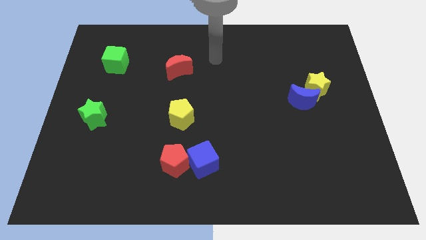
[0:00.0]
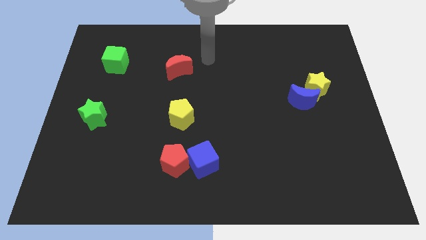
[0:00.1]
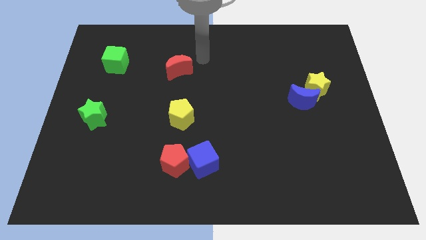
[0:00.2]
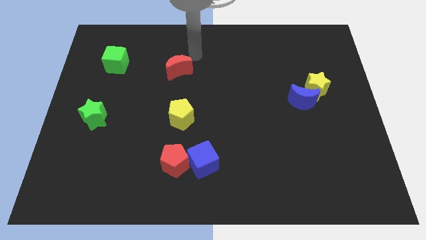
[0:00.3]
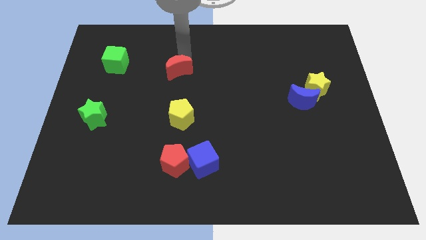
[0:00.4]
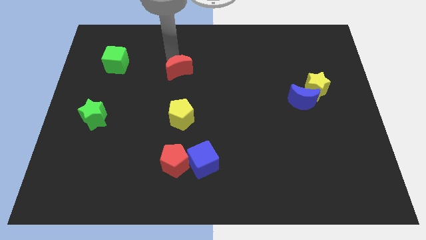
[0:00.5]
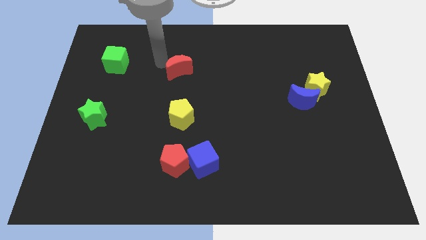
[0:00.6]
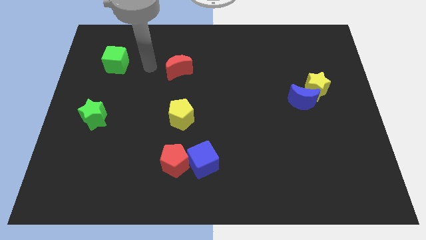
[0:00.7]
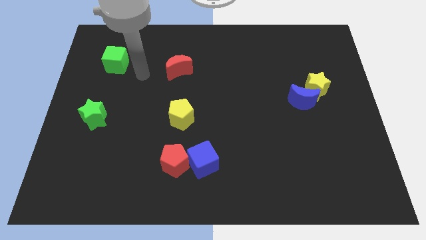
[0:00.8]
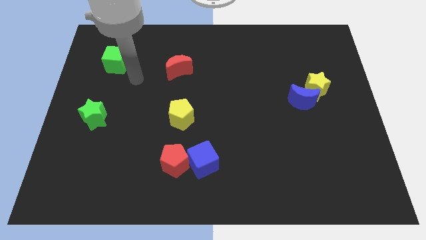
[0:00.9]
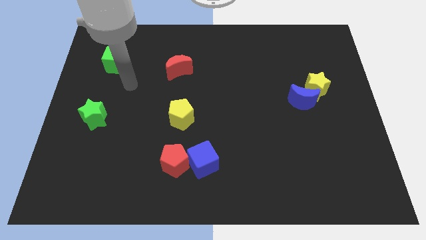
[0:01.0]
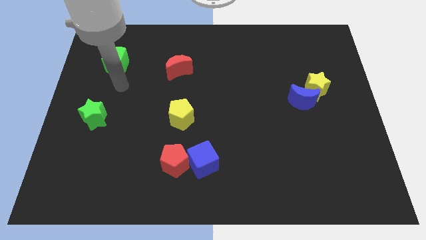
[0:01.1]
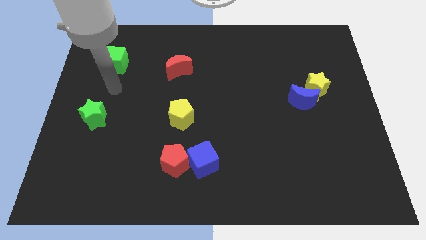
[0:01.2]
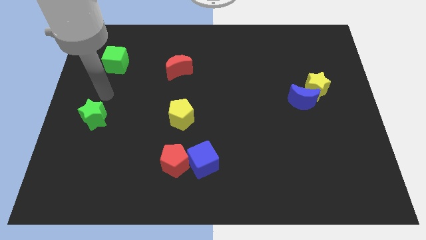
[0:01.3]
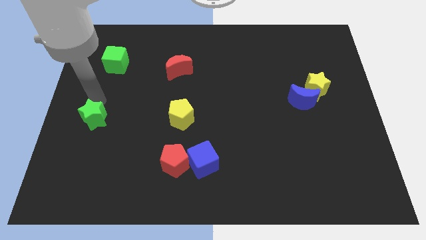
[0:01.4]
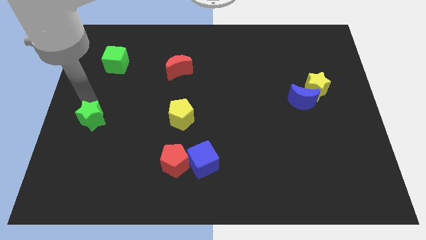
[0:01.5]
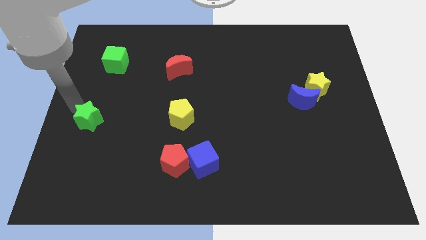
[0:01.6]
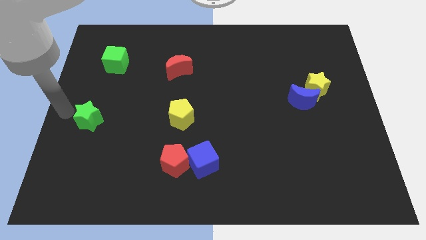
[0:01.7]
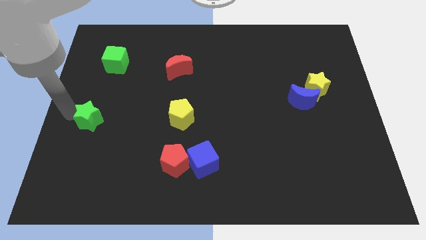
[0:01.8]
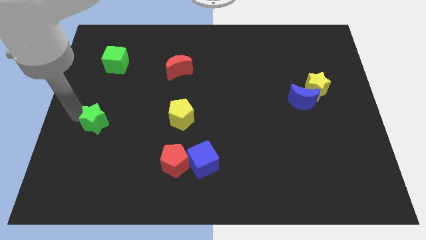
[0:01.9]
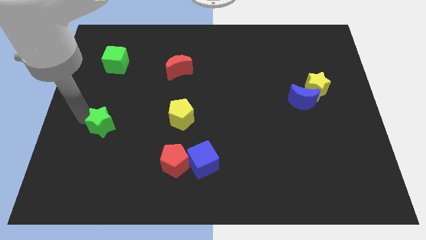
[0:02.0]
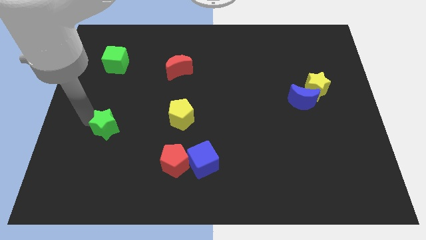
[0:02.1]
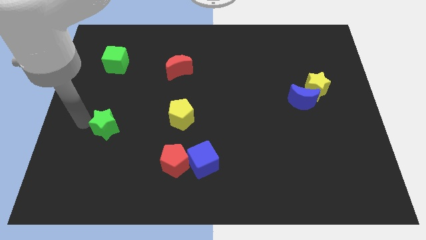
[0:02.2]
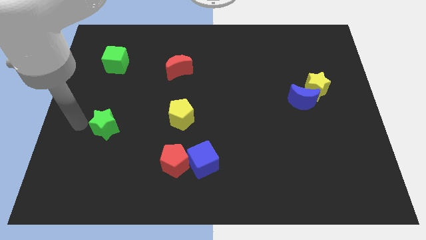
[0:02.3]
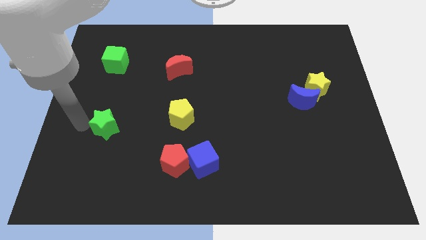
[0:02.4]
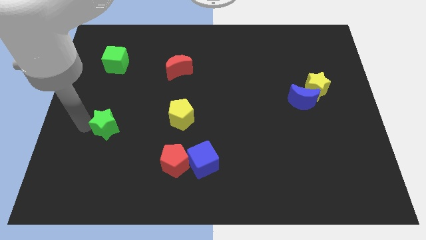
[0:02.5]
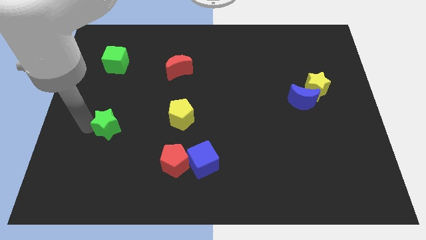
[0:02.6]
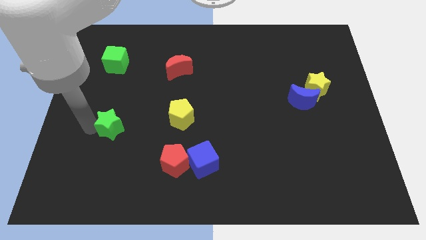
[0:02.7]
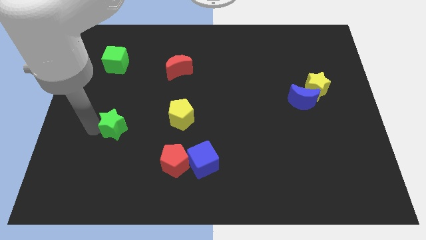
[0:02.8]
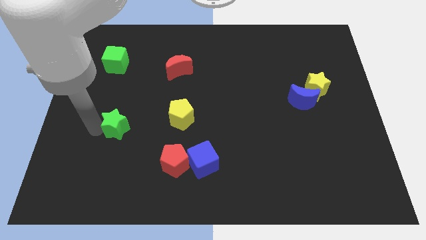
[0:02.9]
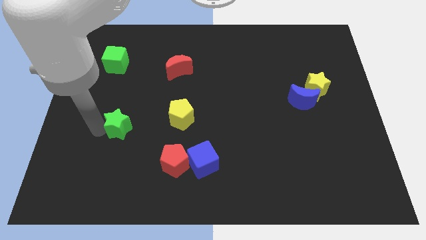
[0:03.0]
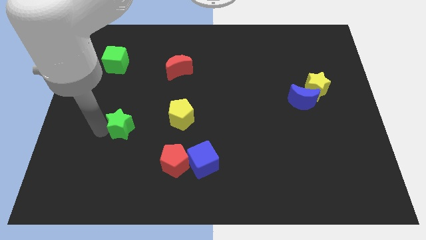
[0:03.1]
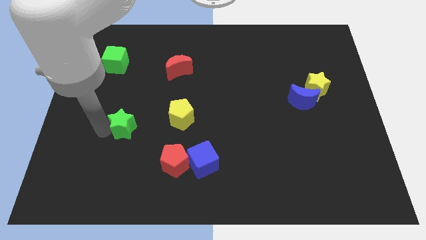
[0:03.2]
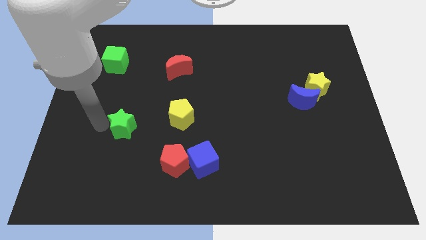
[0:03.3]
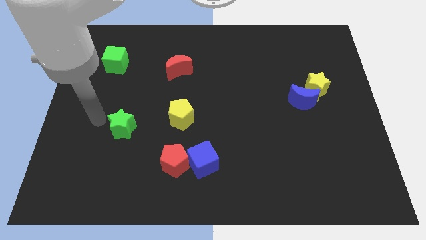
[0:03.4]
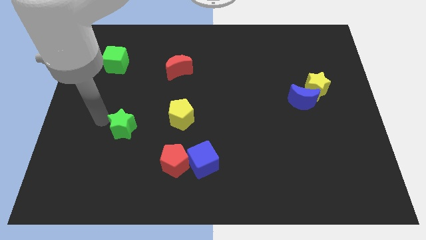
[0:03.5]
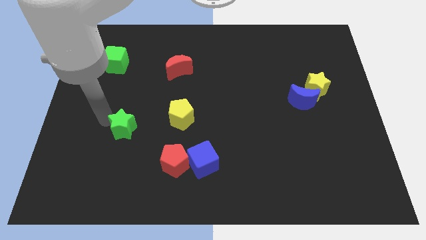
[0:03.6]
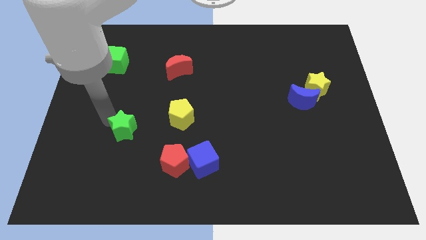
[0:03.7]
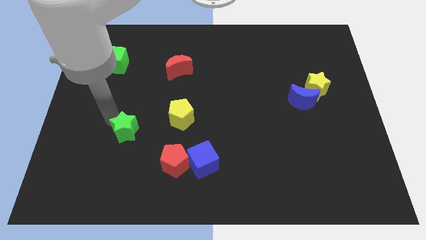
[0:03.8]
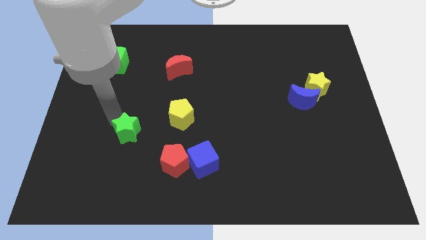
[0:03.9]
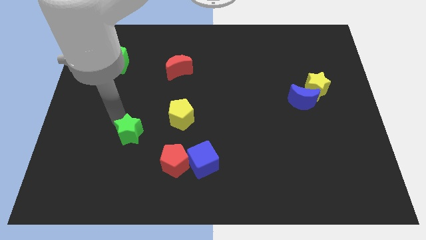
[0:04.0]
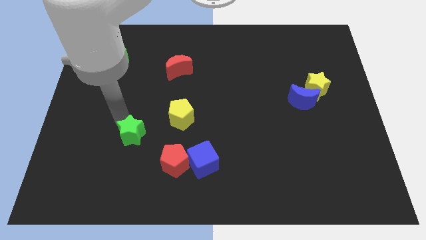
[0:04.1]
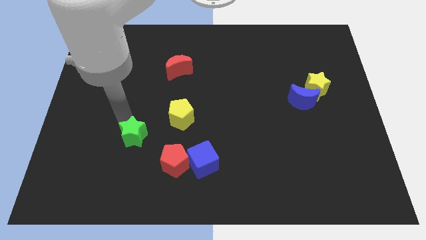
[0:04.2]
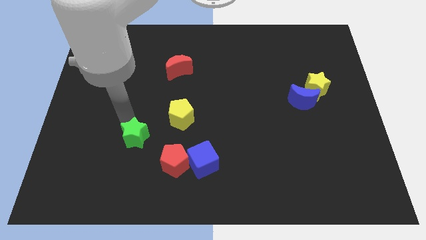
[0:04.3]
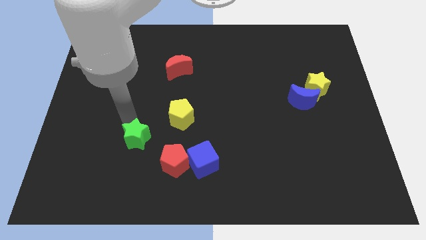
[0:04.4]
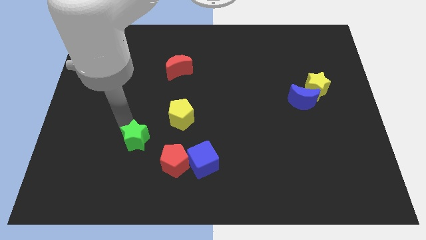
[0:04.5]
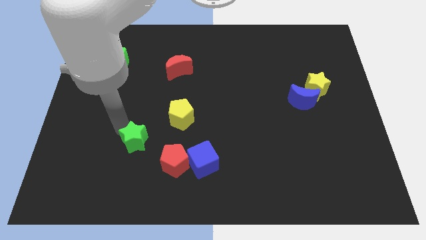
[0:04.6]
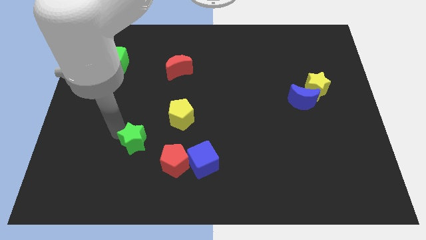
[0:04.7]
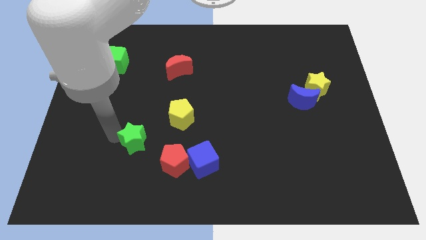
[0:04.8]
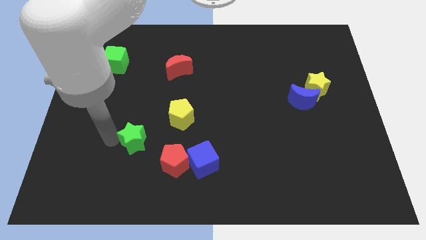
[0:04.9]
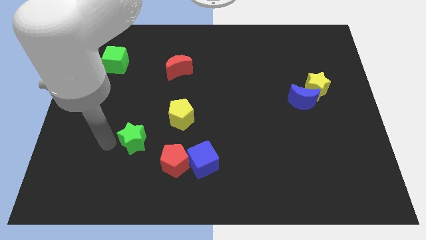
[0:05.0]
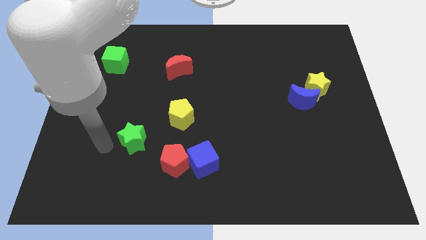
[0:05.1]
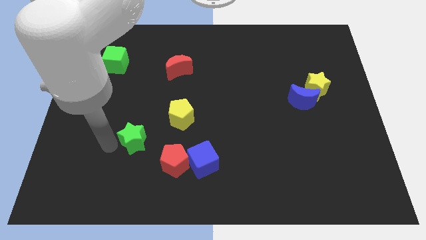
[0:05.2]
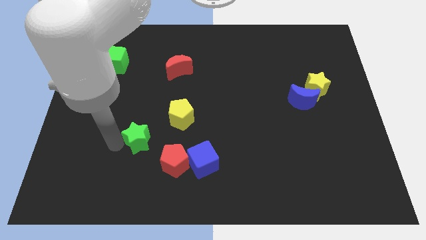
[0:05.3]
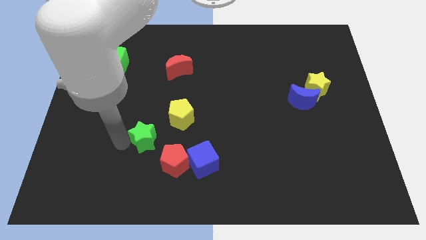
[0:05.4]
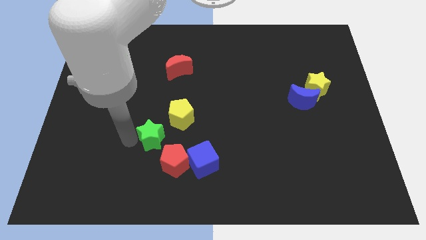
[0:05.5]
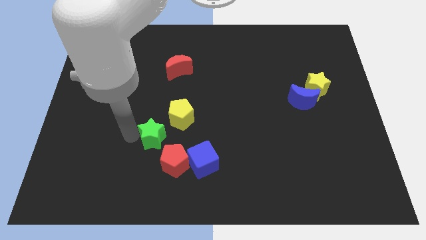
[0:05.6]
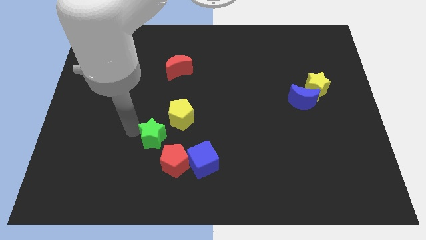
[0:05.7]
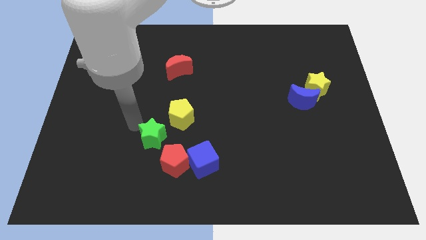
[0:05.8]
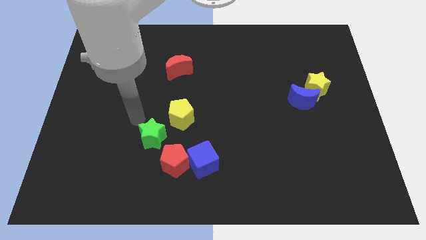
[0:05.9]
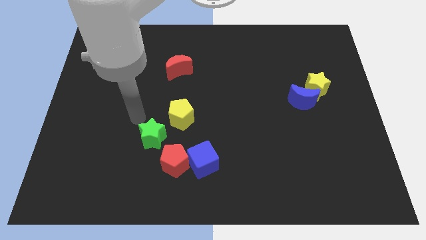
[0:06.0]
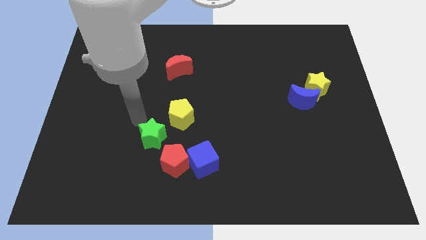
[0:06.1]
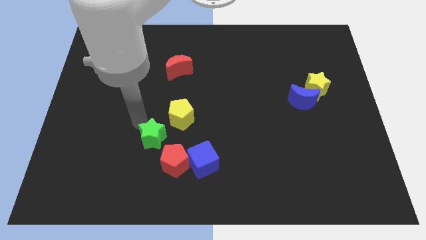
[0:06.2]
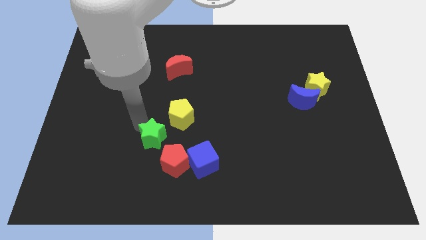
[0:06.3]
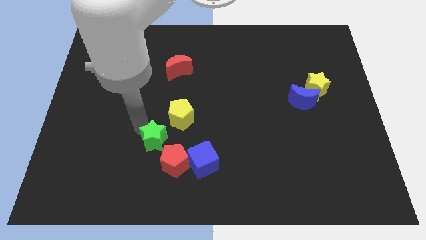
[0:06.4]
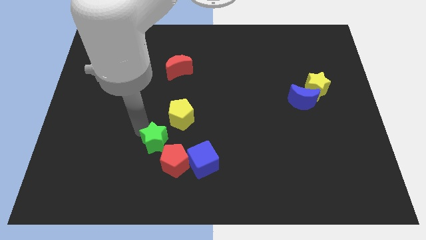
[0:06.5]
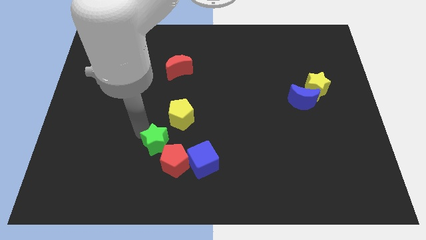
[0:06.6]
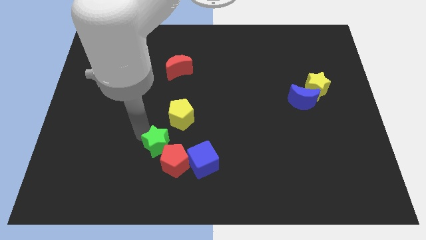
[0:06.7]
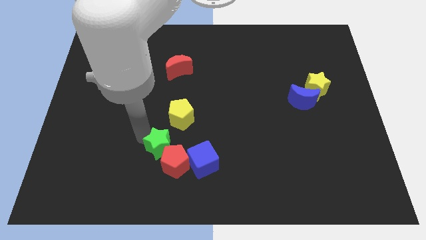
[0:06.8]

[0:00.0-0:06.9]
push the green star towards the red pentagon
